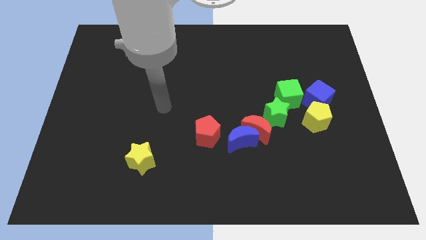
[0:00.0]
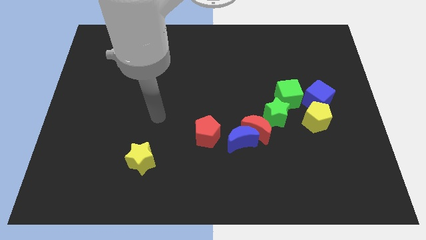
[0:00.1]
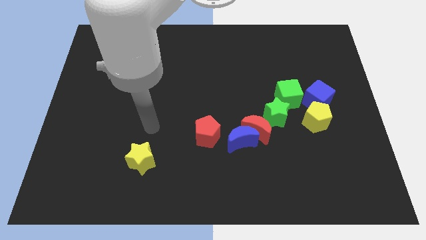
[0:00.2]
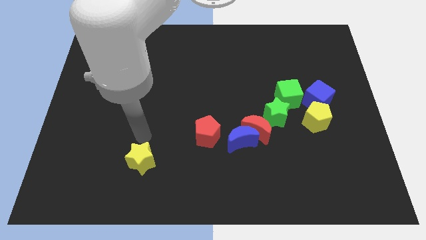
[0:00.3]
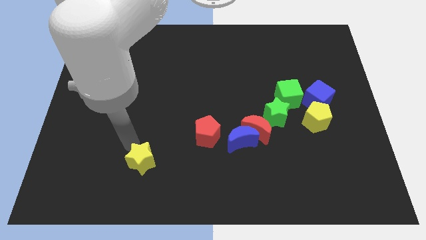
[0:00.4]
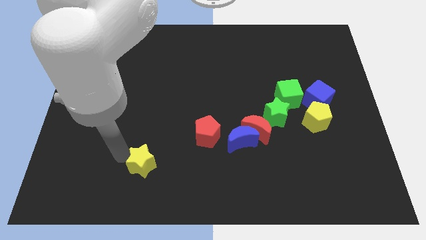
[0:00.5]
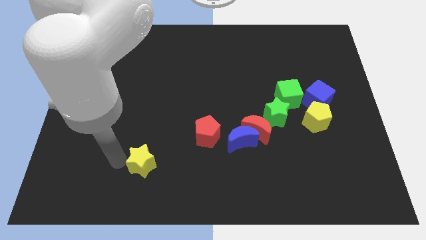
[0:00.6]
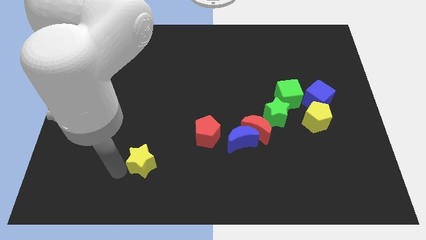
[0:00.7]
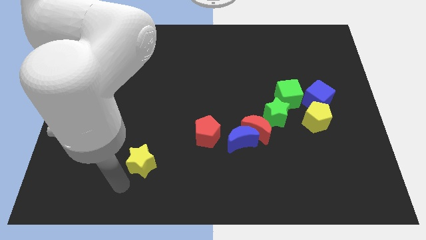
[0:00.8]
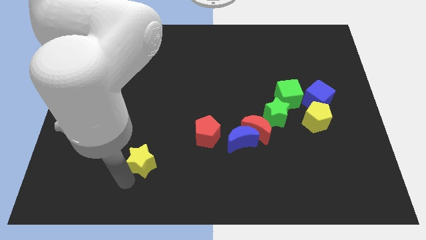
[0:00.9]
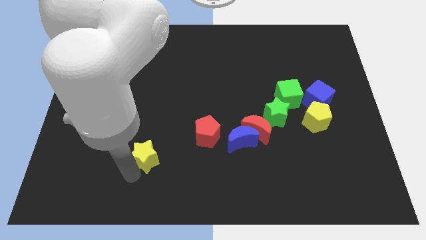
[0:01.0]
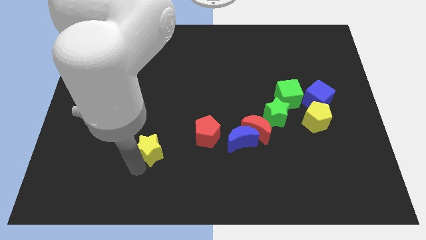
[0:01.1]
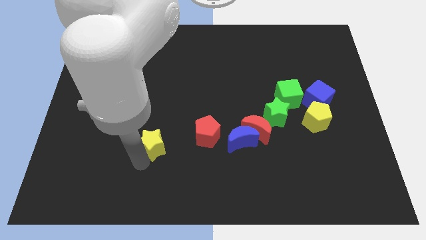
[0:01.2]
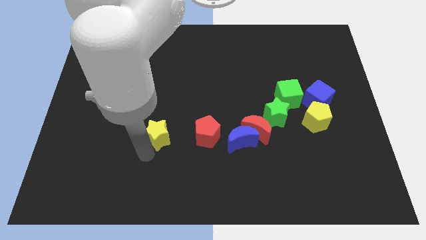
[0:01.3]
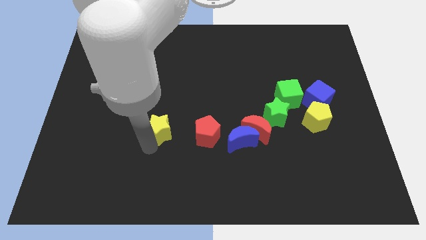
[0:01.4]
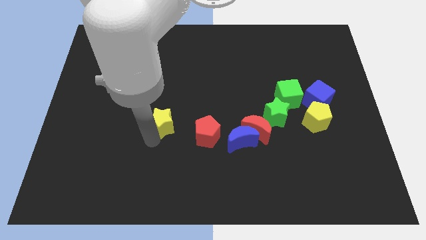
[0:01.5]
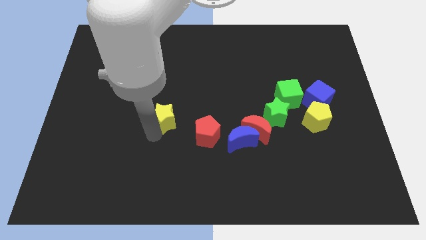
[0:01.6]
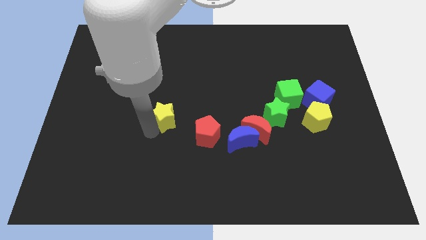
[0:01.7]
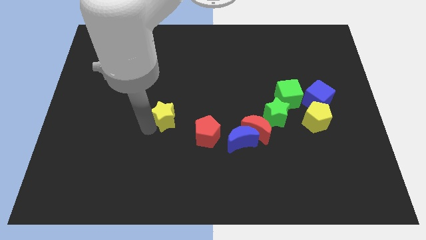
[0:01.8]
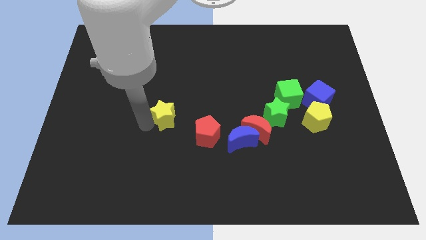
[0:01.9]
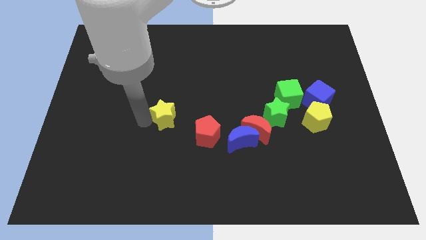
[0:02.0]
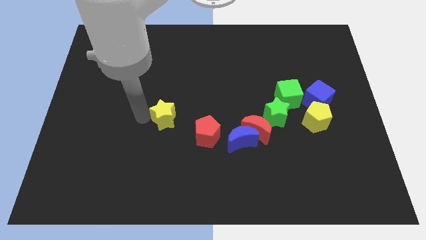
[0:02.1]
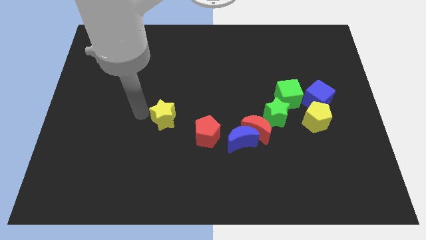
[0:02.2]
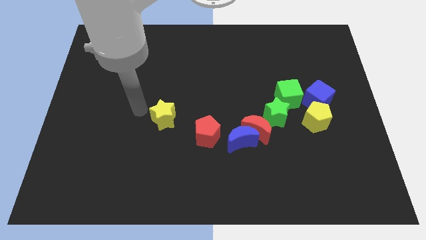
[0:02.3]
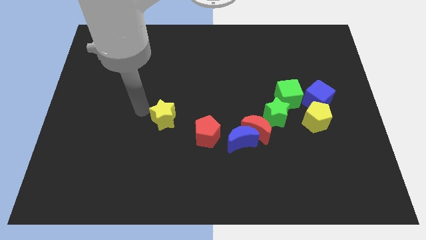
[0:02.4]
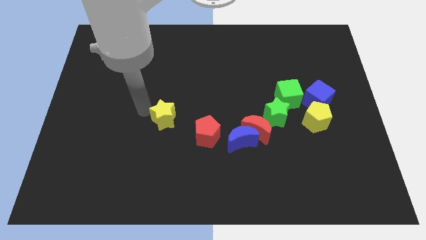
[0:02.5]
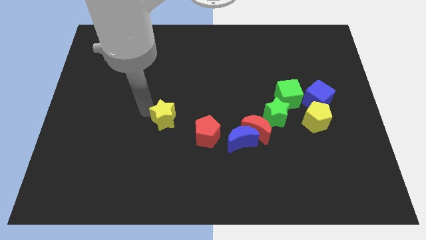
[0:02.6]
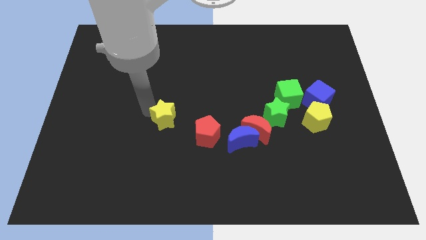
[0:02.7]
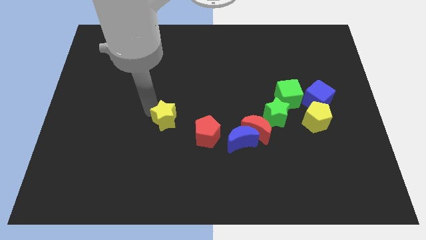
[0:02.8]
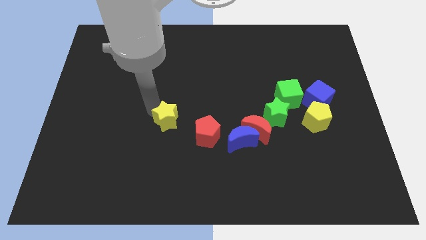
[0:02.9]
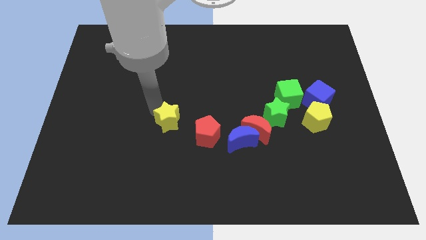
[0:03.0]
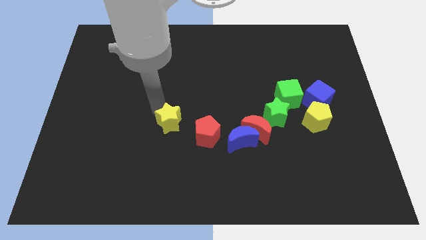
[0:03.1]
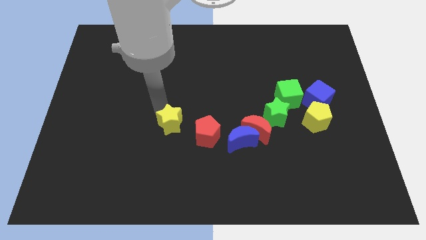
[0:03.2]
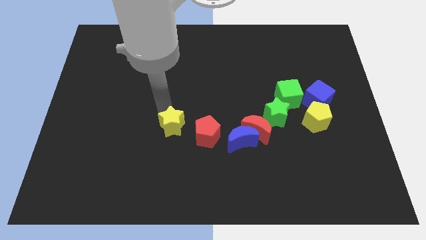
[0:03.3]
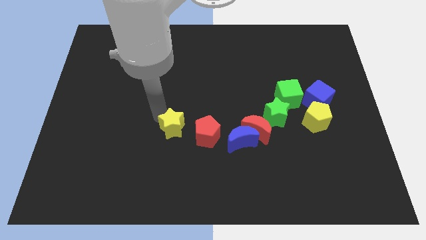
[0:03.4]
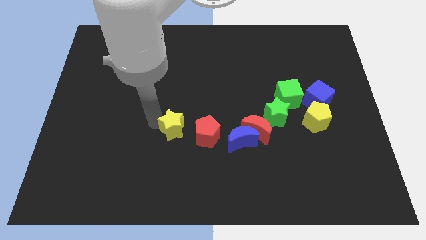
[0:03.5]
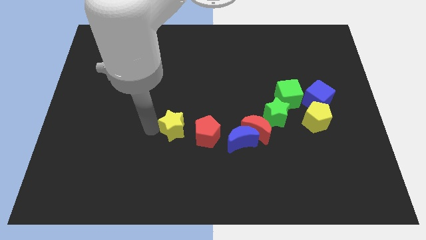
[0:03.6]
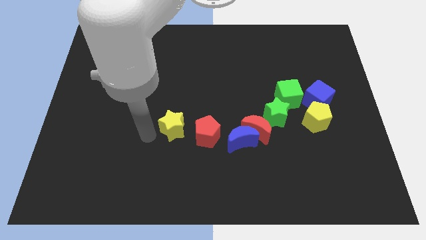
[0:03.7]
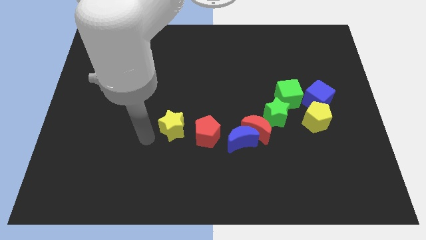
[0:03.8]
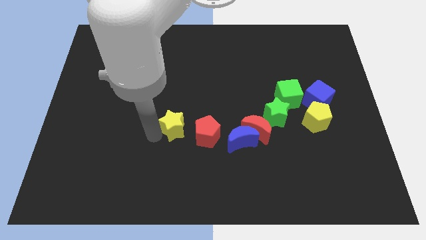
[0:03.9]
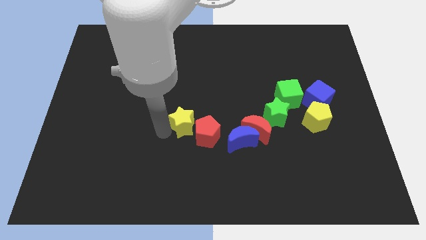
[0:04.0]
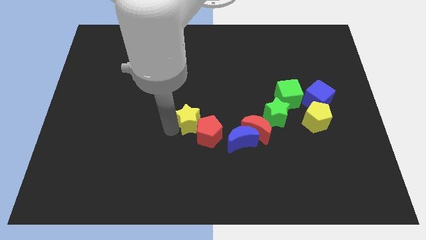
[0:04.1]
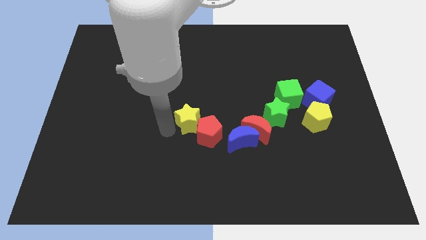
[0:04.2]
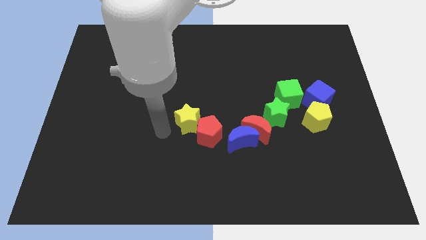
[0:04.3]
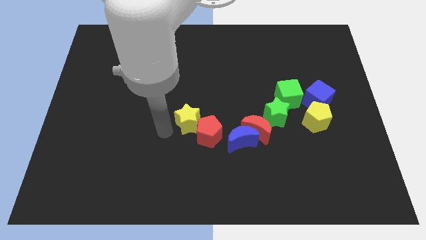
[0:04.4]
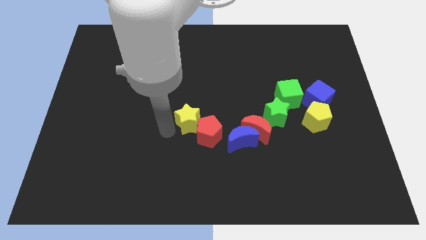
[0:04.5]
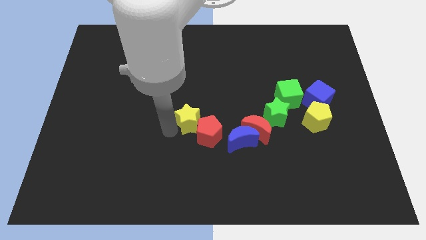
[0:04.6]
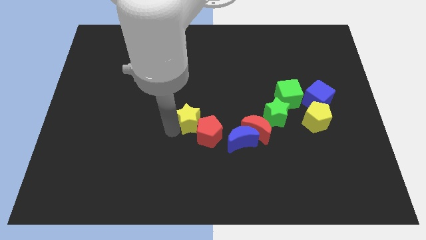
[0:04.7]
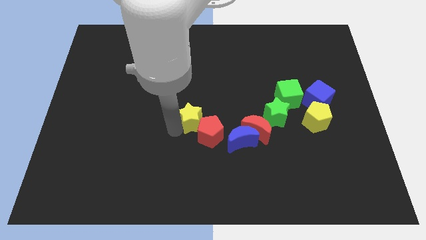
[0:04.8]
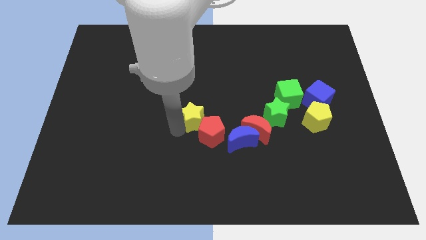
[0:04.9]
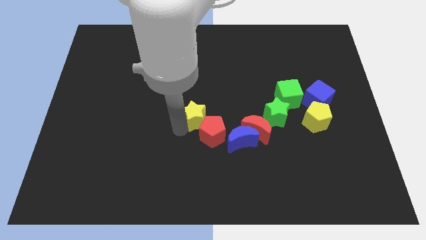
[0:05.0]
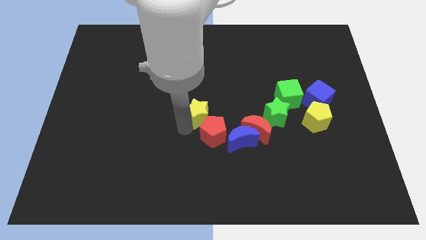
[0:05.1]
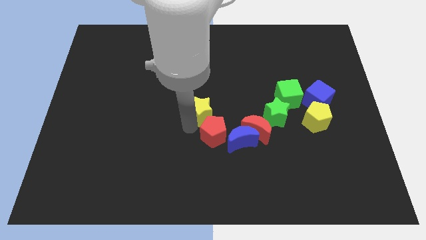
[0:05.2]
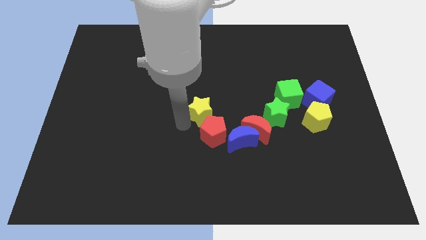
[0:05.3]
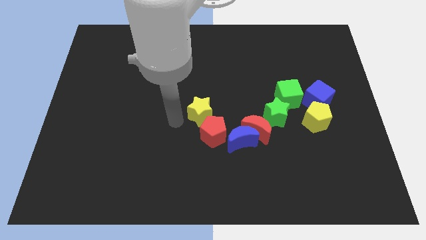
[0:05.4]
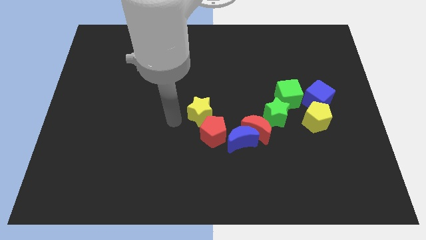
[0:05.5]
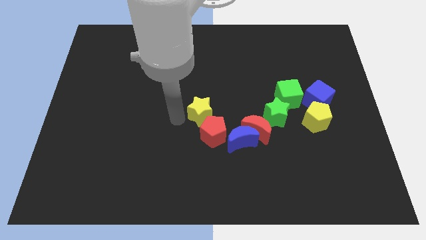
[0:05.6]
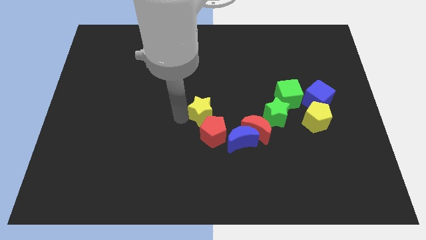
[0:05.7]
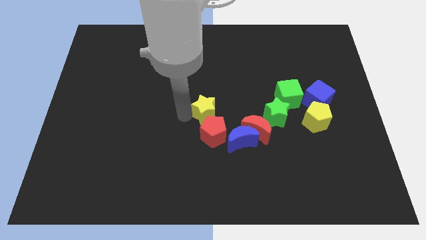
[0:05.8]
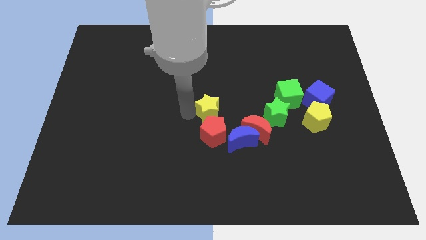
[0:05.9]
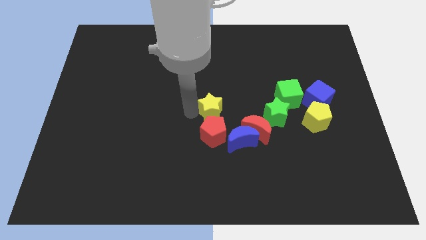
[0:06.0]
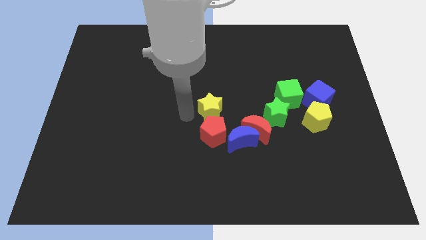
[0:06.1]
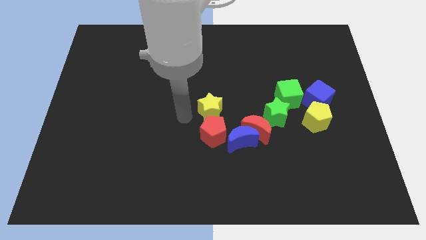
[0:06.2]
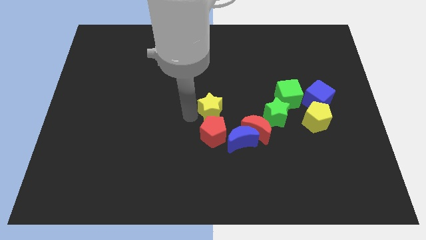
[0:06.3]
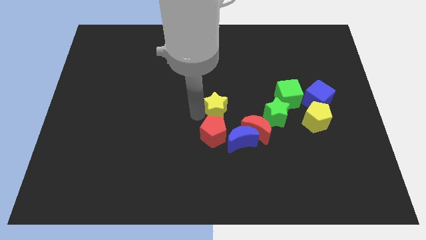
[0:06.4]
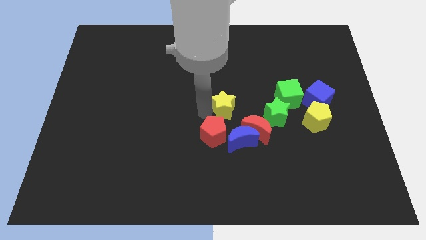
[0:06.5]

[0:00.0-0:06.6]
push the yellow star to the top side of the blue moon
